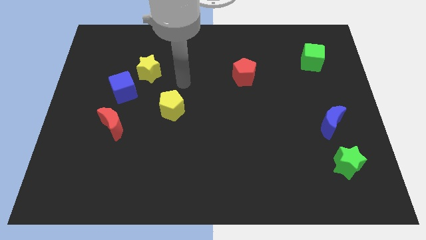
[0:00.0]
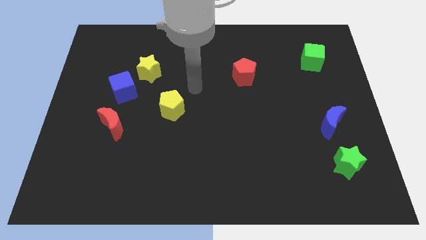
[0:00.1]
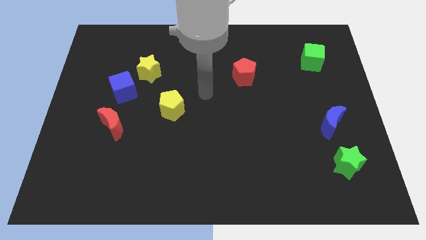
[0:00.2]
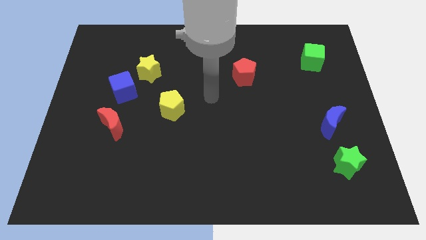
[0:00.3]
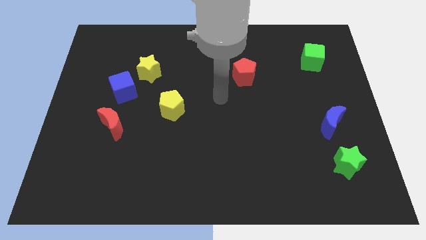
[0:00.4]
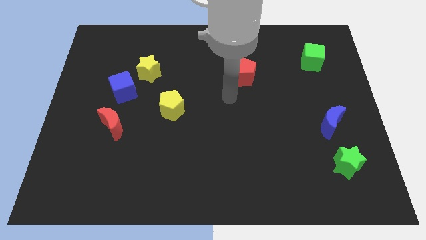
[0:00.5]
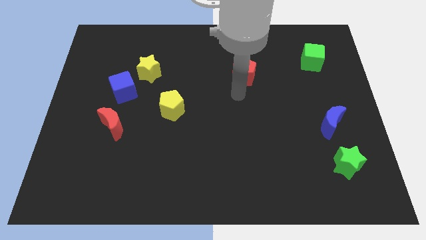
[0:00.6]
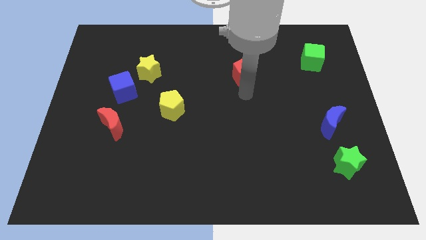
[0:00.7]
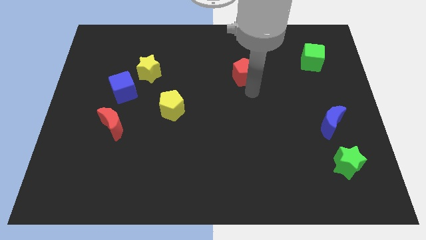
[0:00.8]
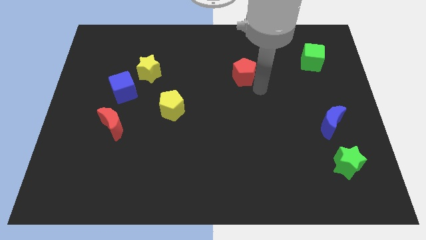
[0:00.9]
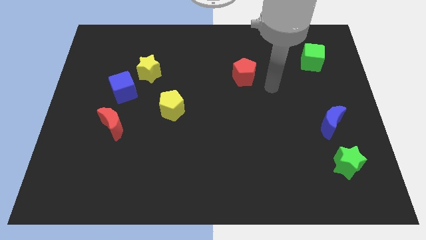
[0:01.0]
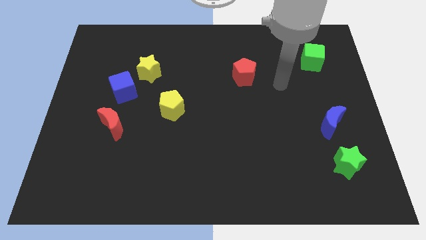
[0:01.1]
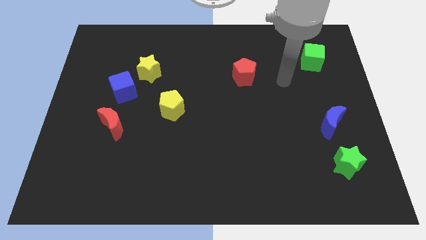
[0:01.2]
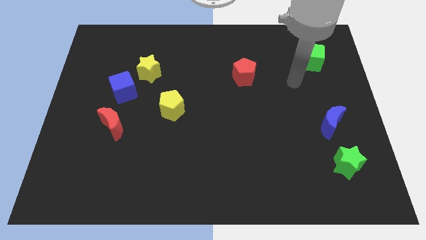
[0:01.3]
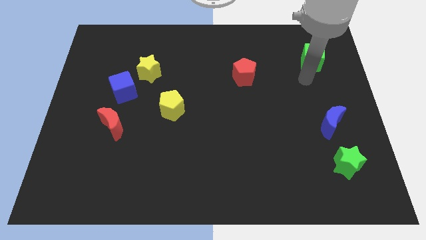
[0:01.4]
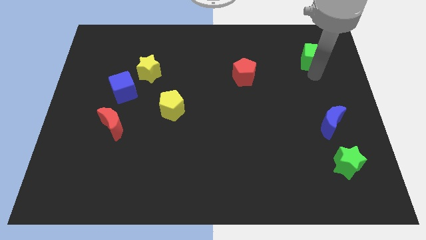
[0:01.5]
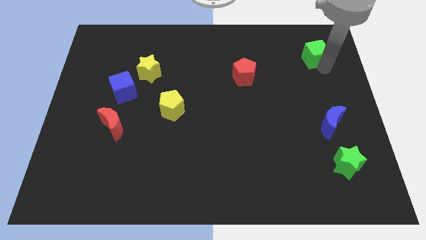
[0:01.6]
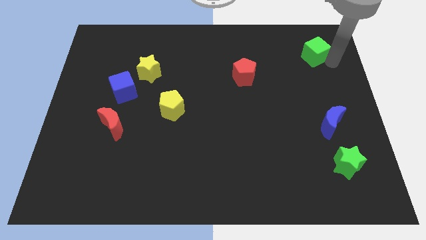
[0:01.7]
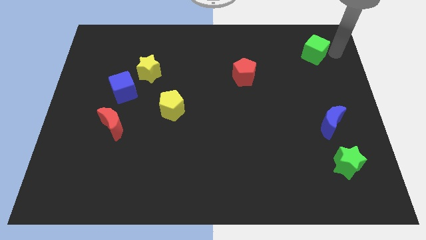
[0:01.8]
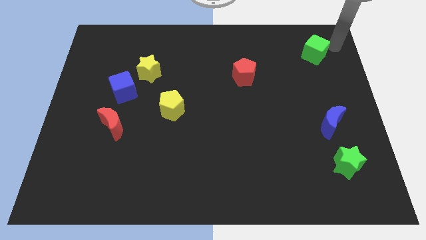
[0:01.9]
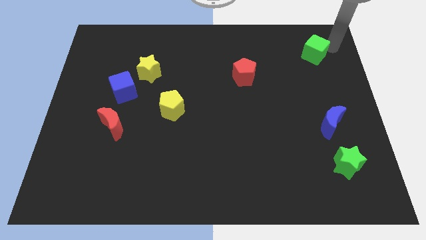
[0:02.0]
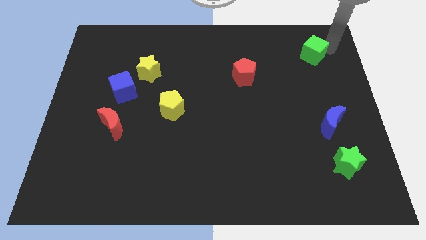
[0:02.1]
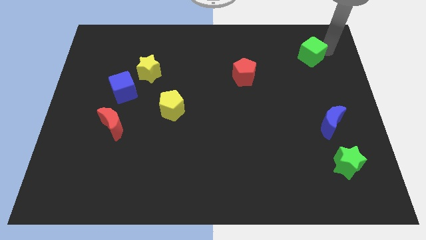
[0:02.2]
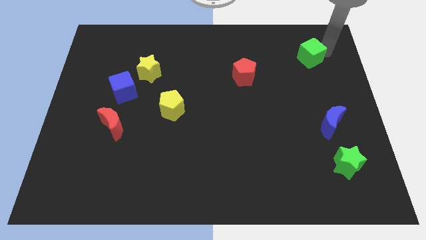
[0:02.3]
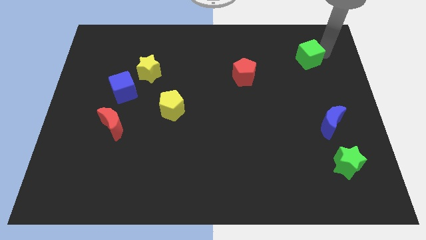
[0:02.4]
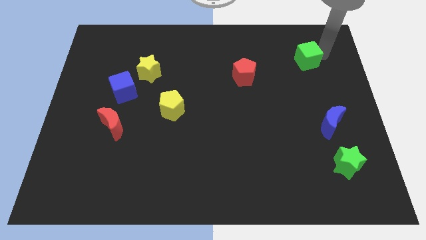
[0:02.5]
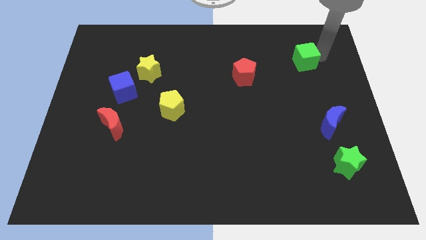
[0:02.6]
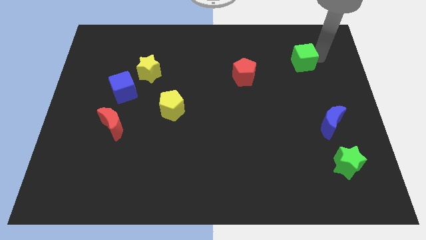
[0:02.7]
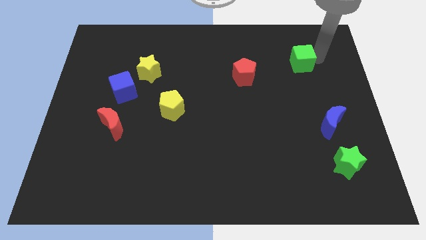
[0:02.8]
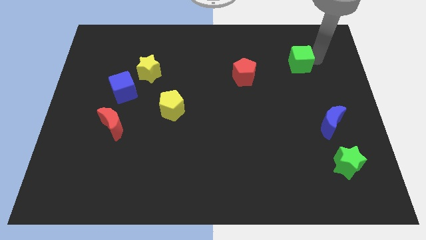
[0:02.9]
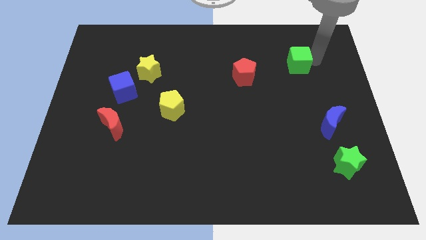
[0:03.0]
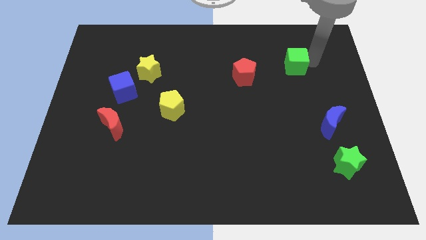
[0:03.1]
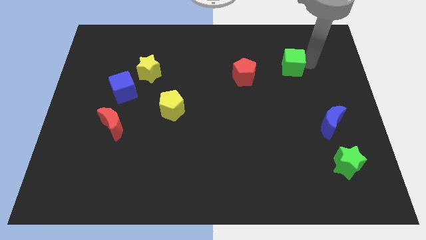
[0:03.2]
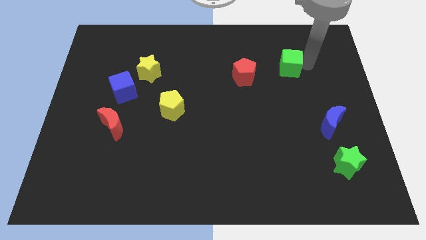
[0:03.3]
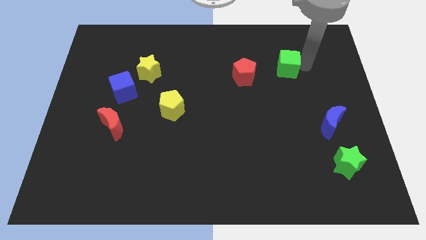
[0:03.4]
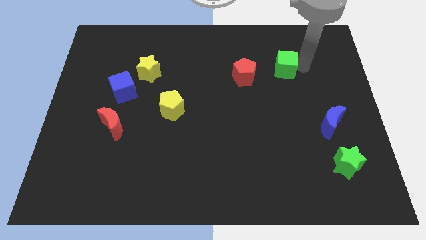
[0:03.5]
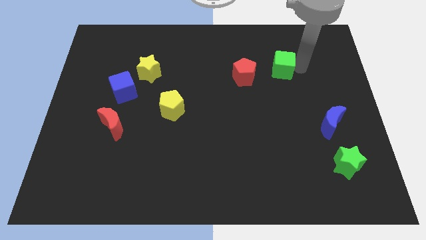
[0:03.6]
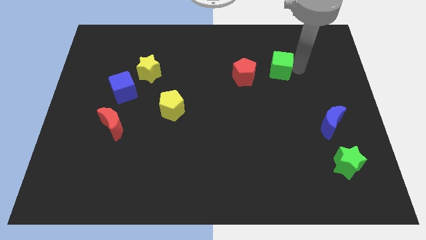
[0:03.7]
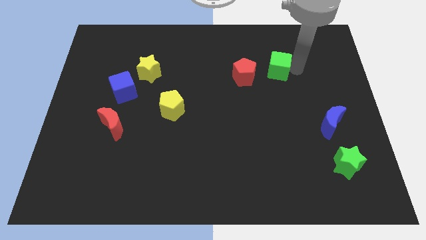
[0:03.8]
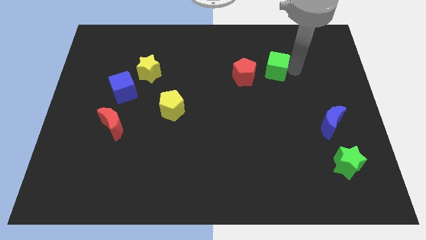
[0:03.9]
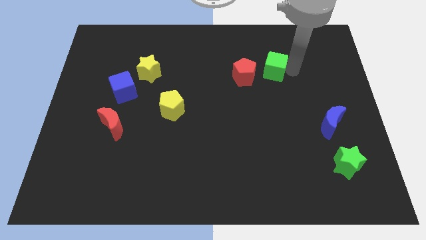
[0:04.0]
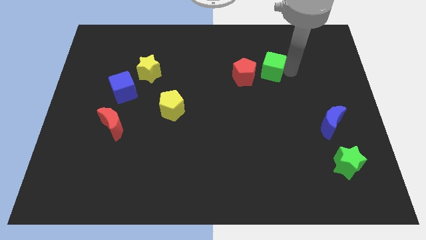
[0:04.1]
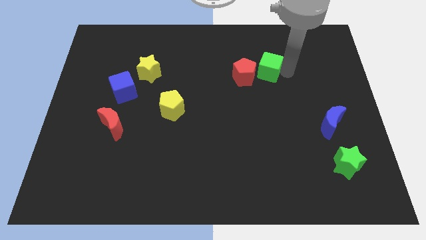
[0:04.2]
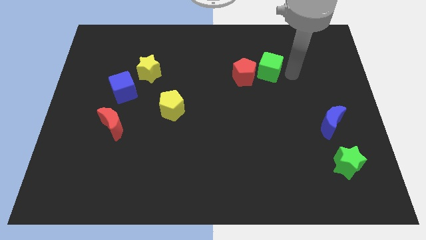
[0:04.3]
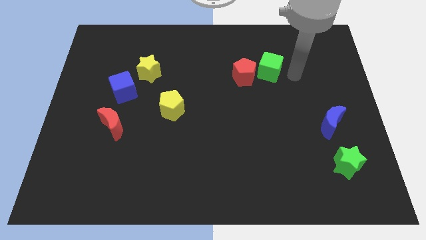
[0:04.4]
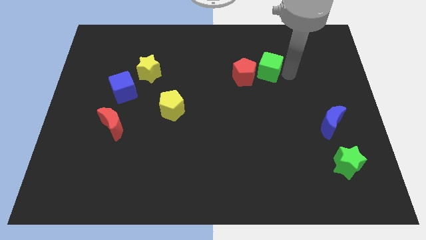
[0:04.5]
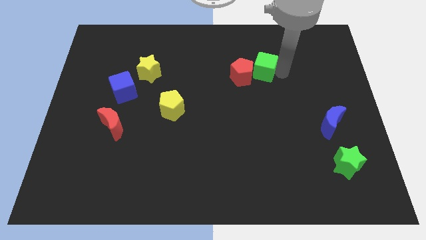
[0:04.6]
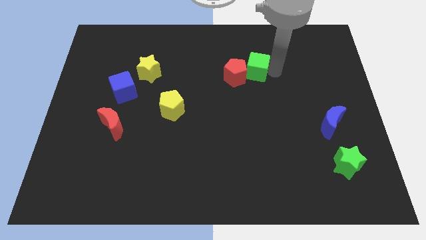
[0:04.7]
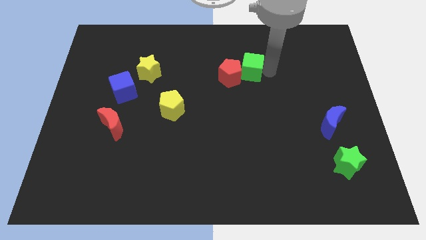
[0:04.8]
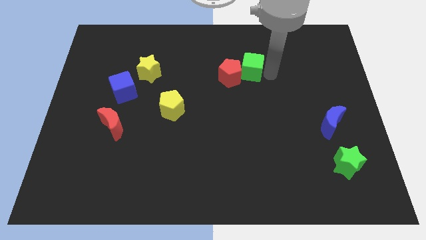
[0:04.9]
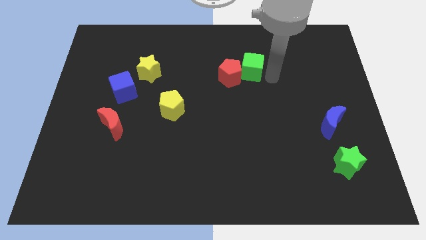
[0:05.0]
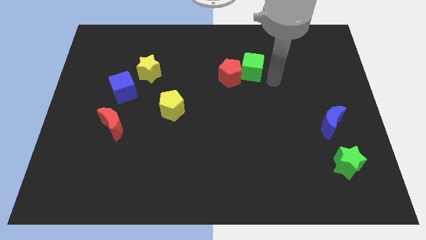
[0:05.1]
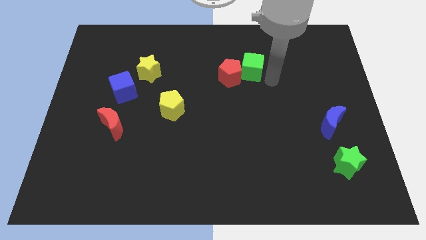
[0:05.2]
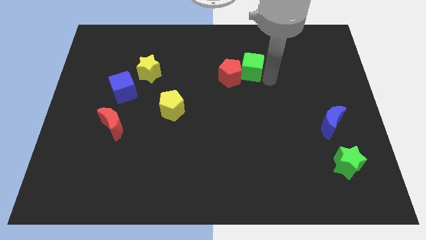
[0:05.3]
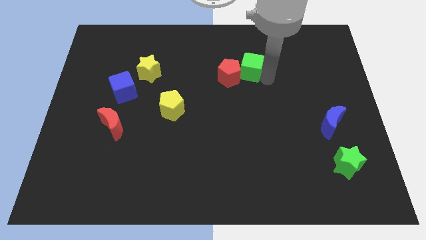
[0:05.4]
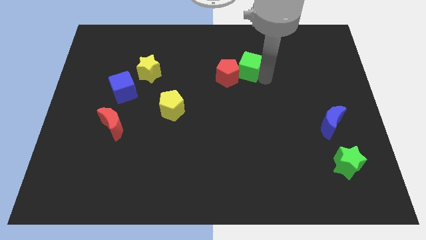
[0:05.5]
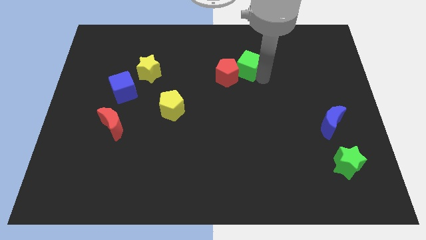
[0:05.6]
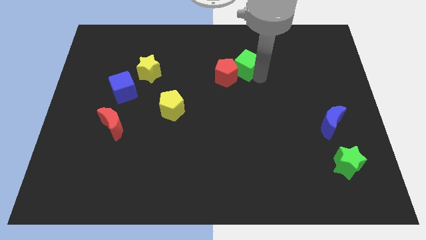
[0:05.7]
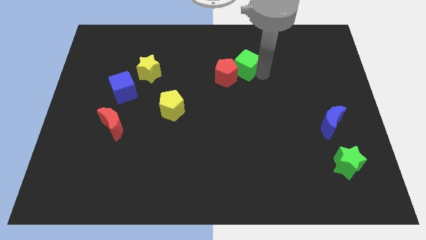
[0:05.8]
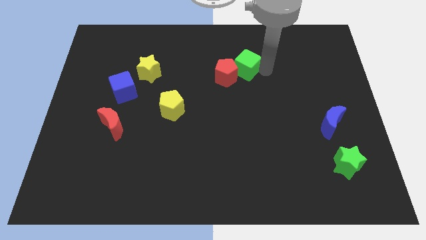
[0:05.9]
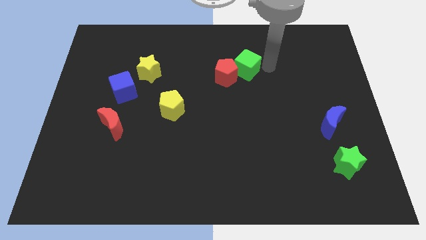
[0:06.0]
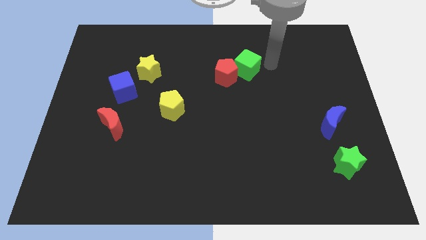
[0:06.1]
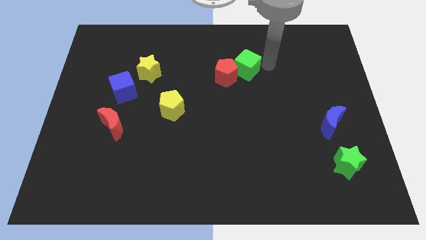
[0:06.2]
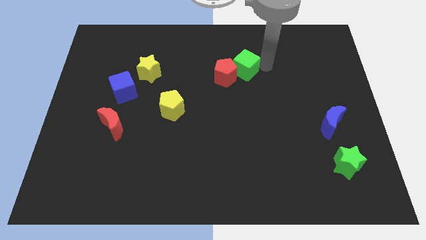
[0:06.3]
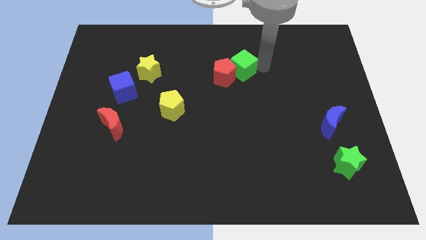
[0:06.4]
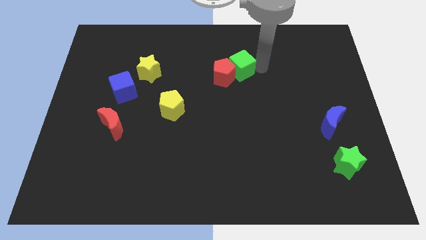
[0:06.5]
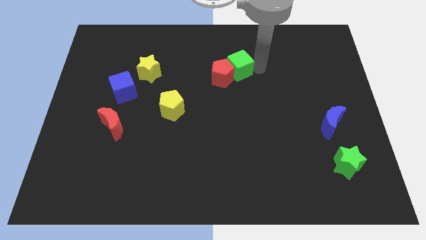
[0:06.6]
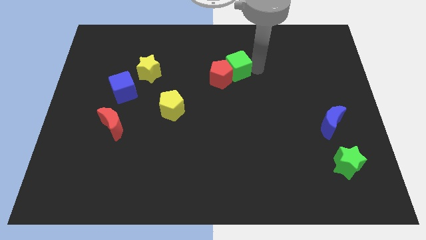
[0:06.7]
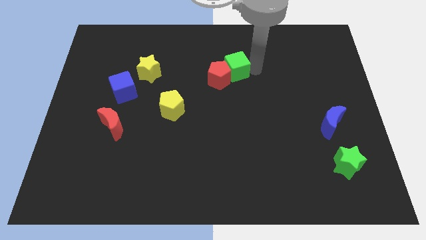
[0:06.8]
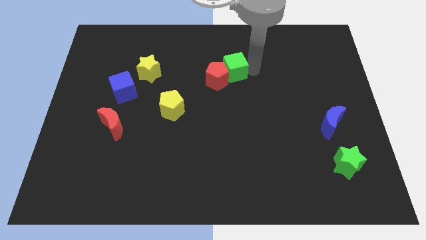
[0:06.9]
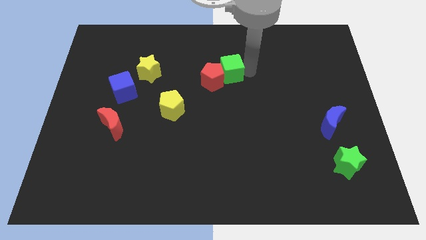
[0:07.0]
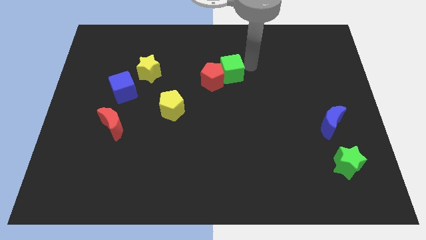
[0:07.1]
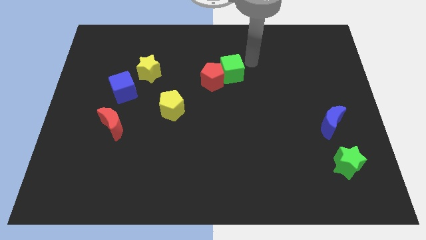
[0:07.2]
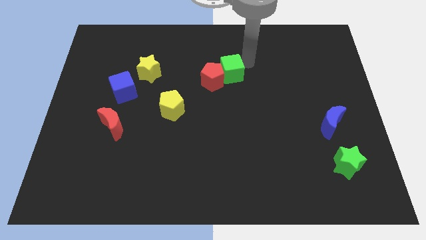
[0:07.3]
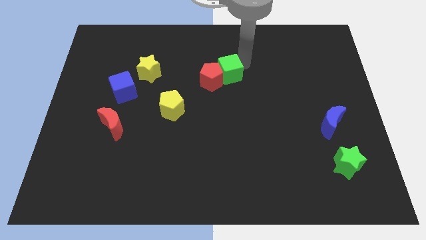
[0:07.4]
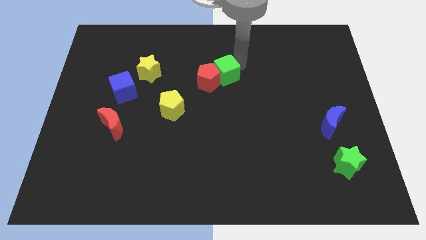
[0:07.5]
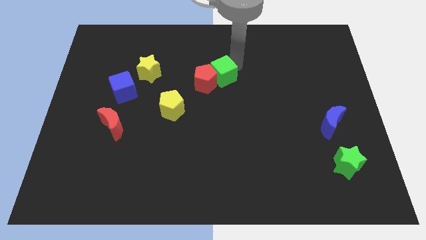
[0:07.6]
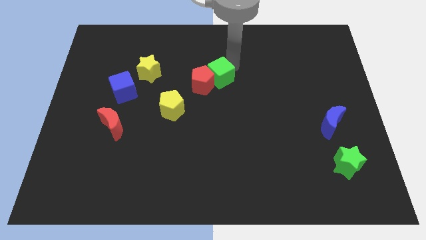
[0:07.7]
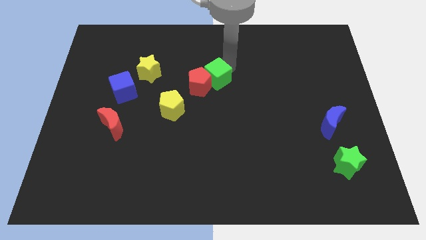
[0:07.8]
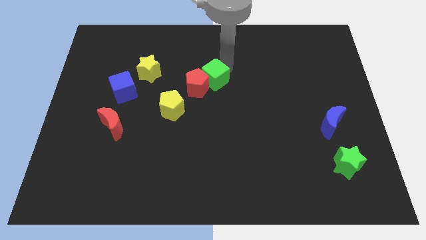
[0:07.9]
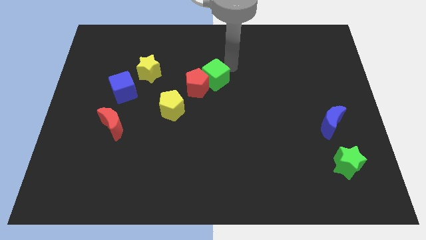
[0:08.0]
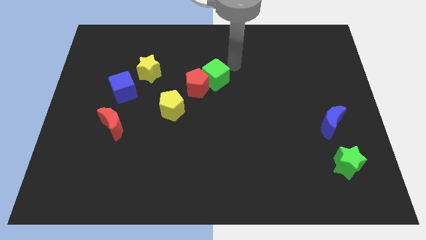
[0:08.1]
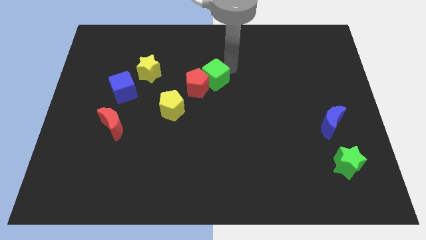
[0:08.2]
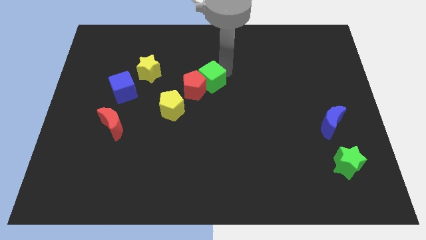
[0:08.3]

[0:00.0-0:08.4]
push the green cube to the top right side of the yellow pentagon
